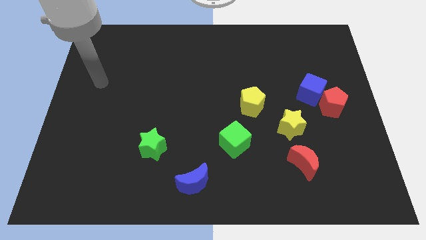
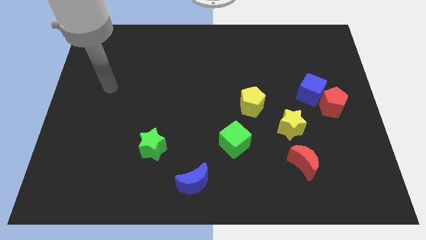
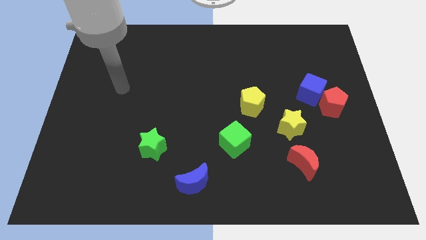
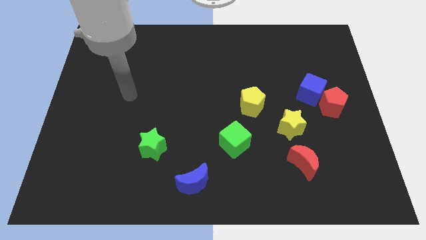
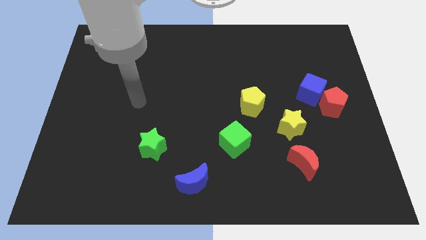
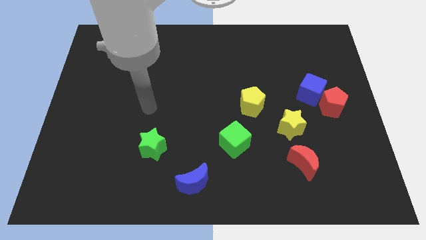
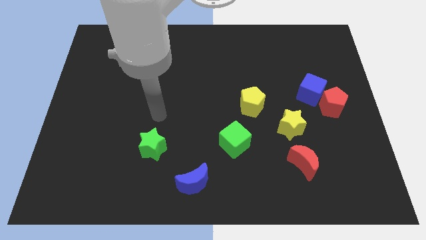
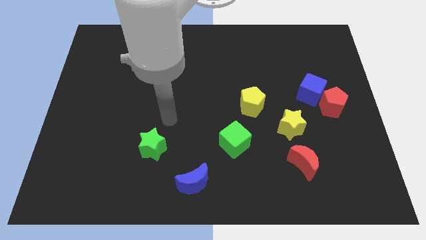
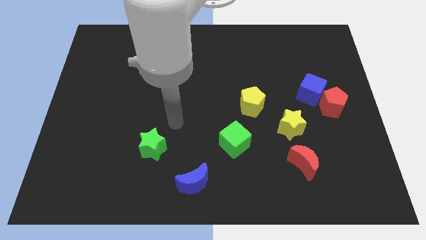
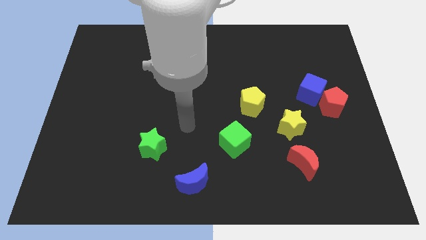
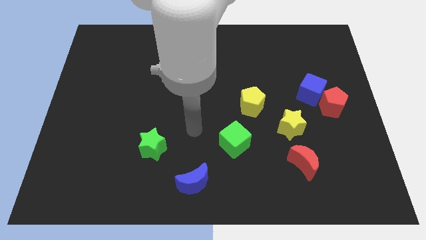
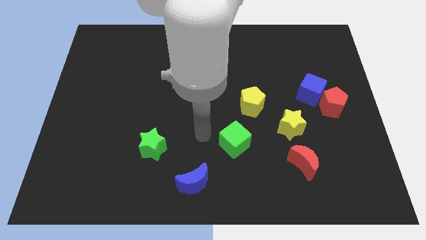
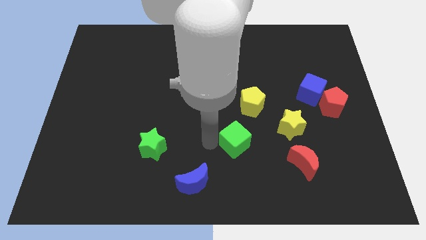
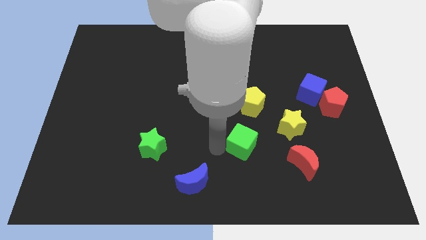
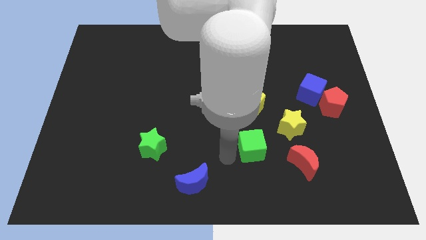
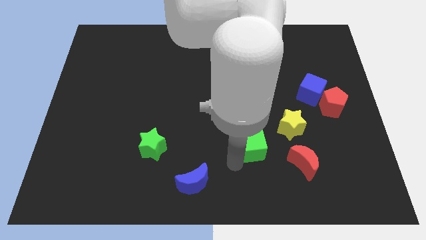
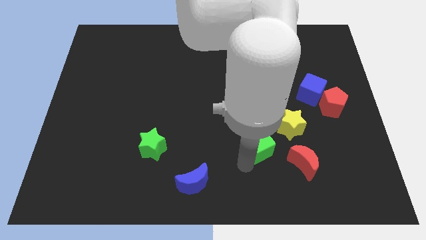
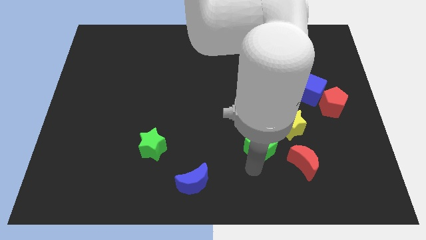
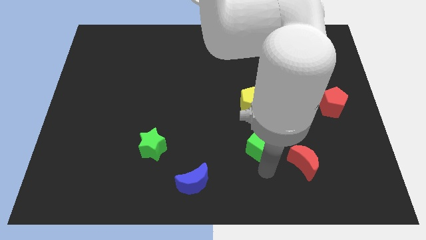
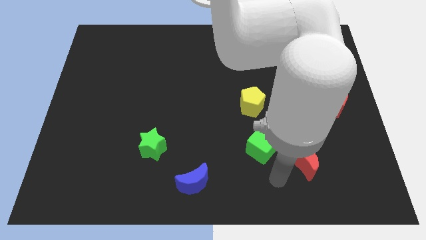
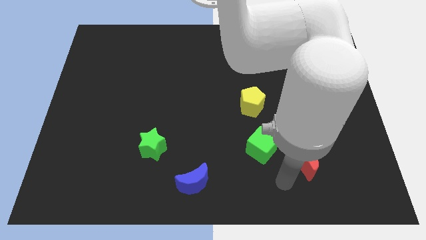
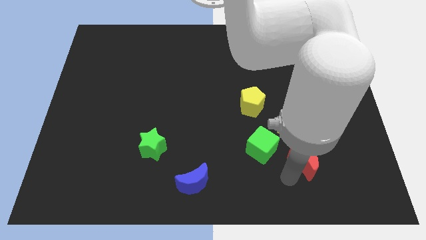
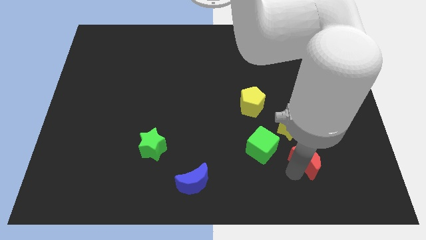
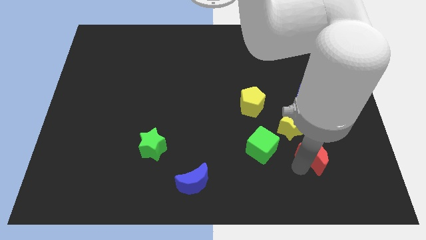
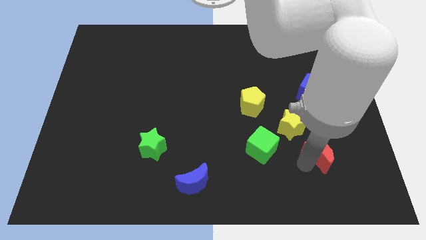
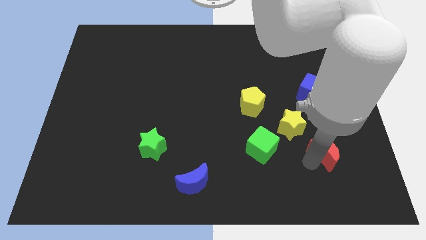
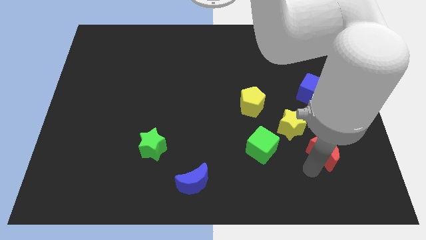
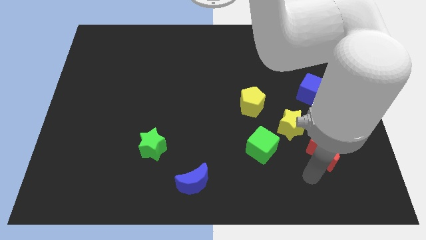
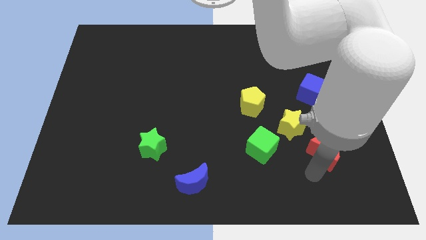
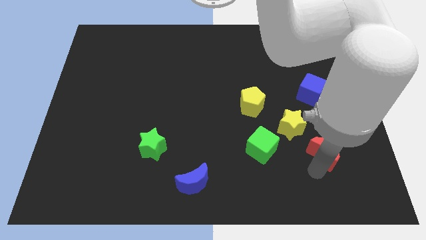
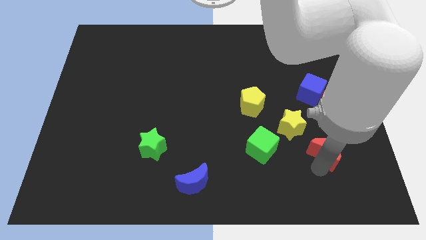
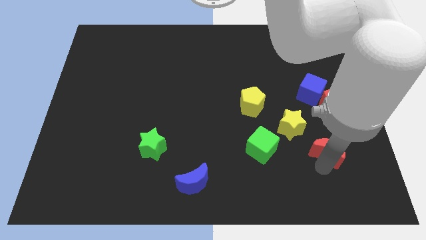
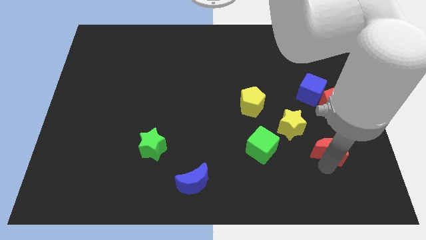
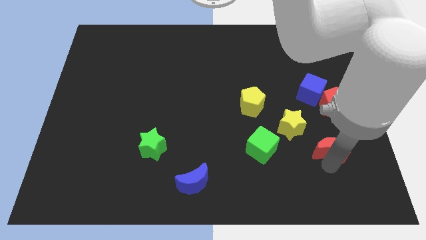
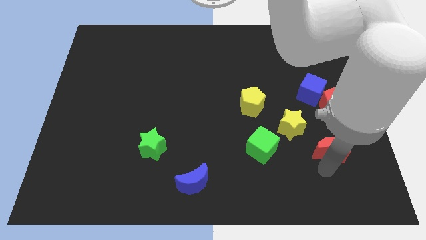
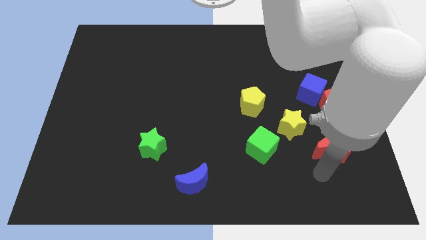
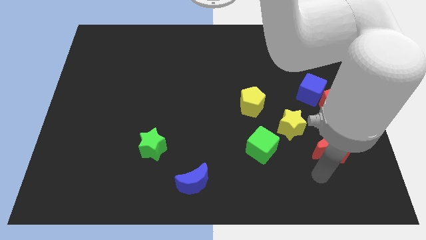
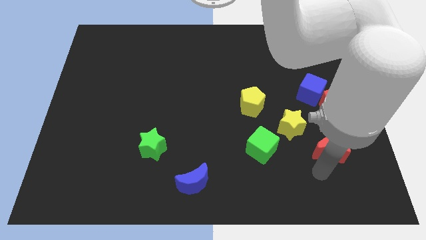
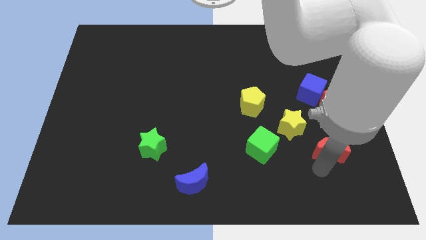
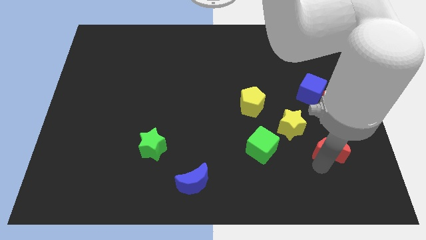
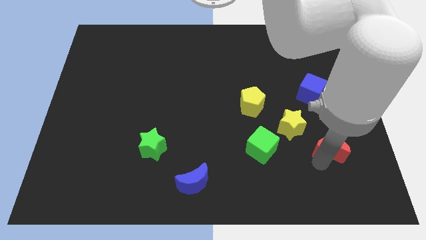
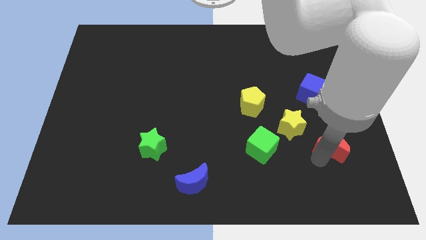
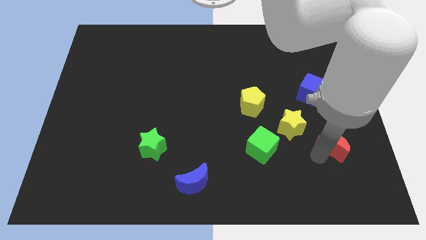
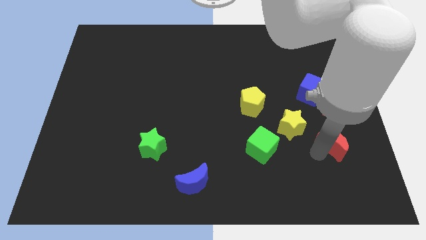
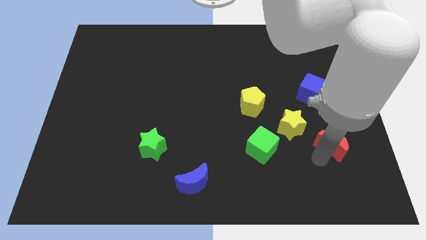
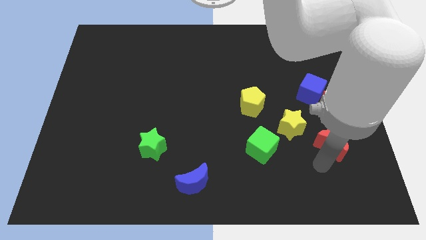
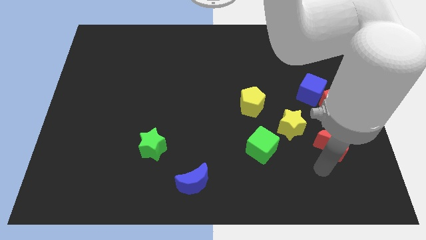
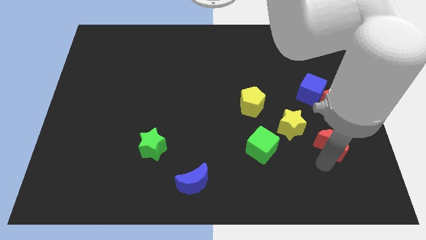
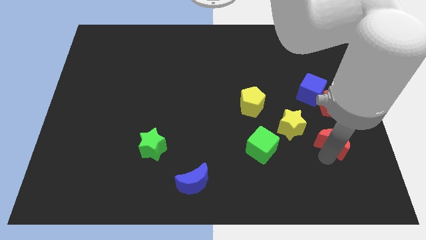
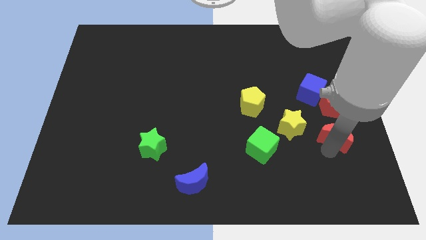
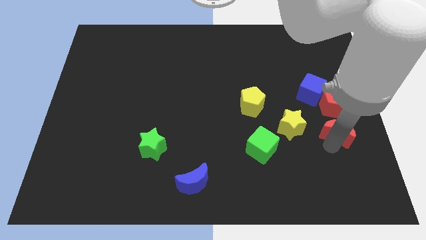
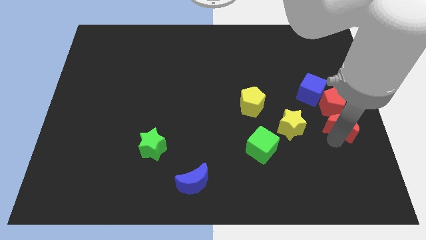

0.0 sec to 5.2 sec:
put the red moon to the bottom right side of the blue cube

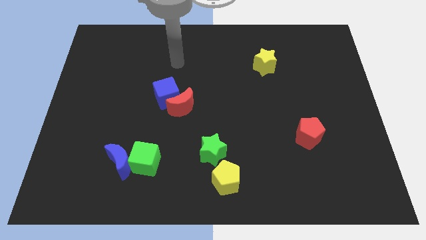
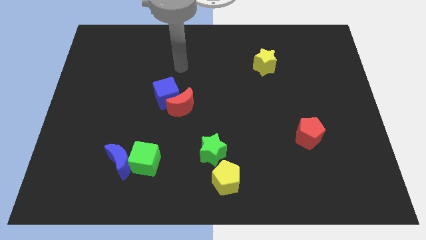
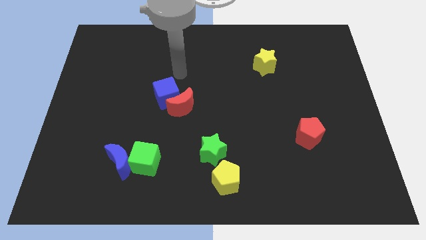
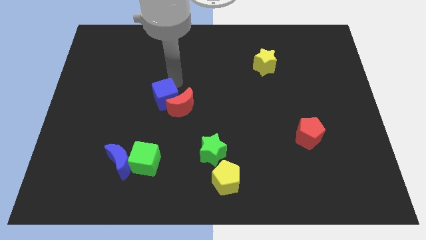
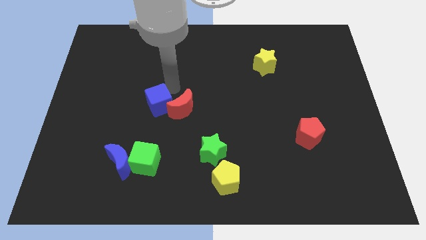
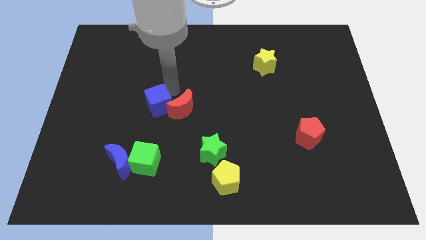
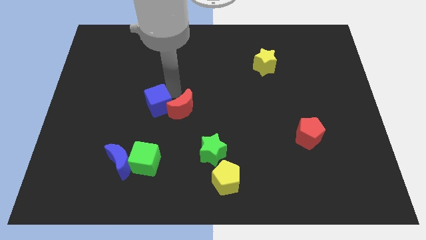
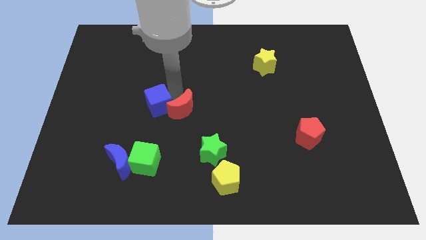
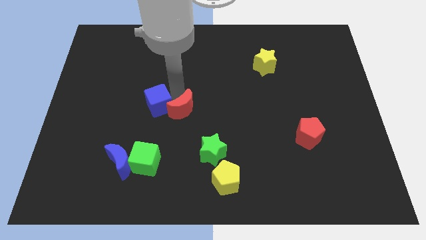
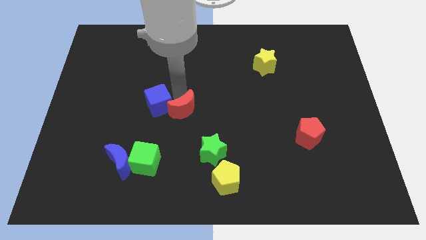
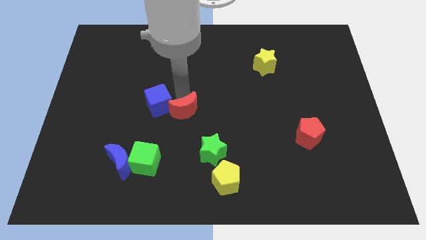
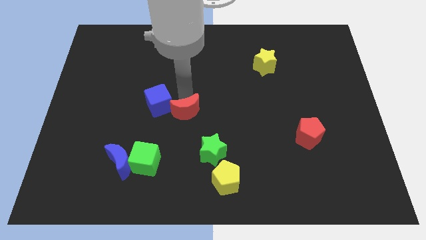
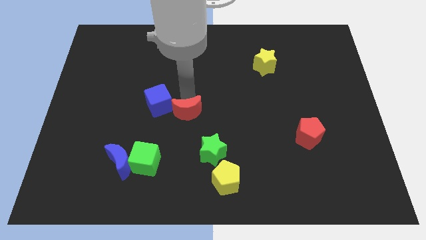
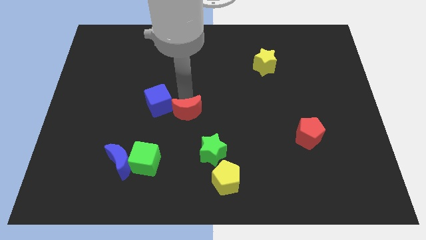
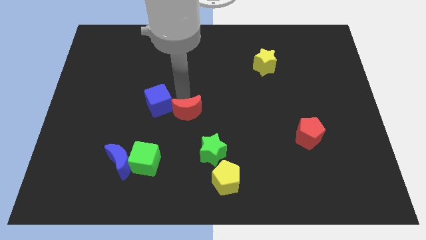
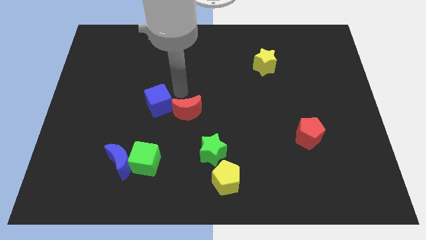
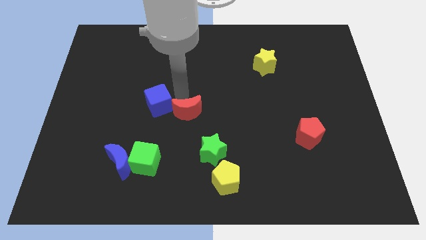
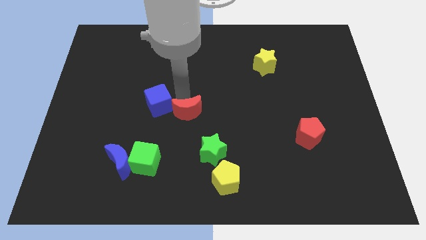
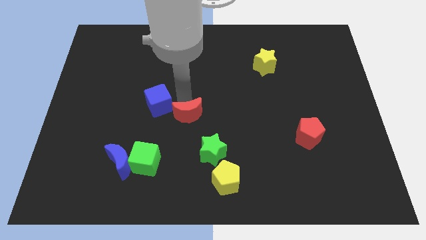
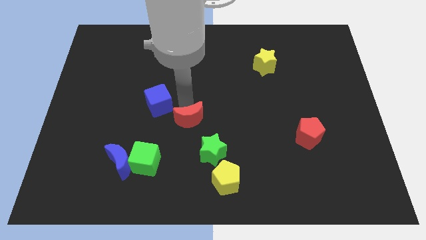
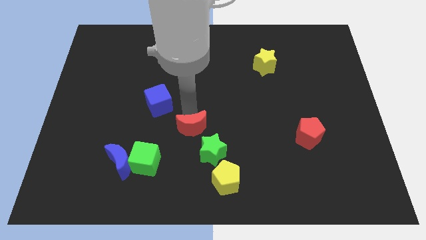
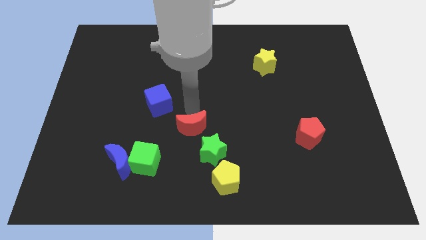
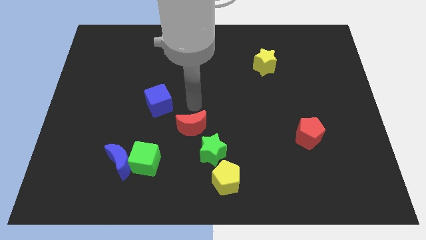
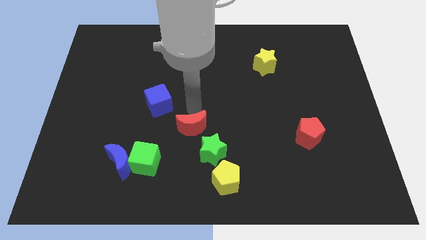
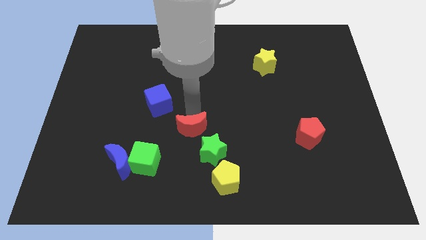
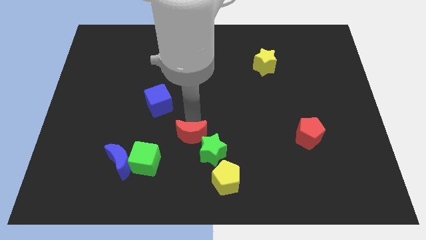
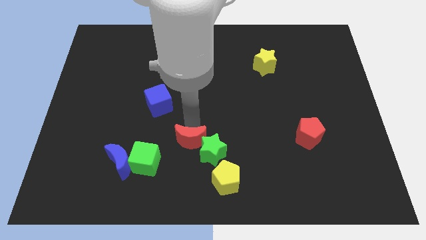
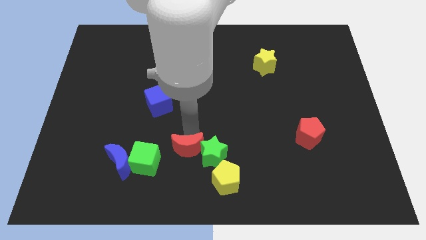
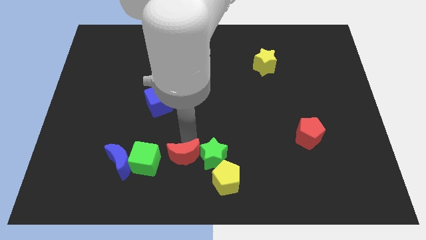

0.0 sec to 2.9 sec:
put the red moon to the bottom left side of the green star
